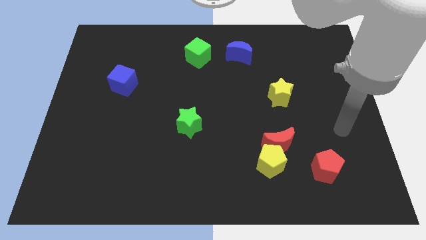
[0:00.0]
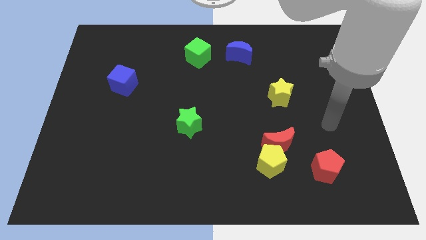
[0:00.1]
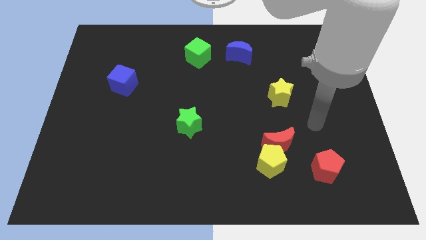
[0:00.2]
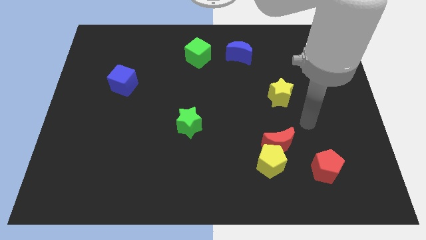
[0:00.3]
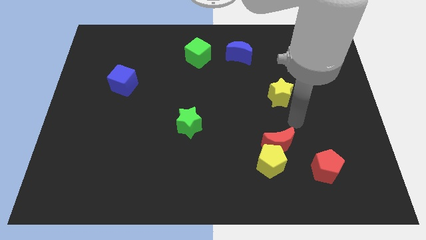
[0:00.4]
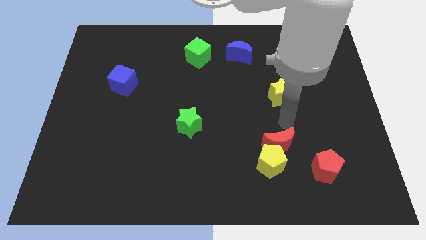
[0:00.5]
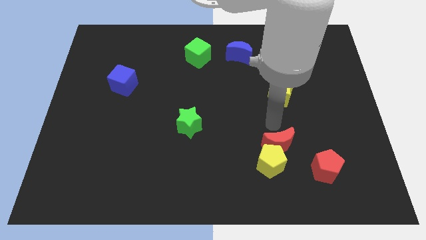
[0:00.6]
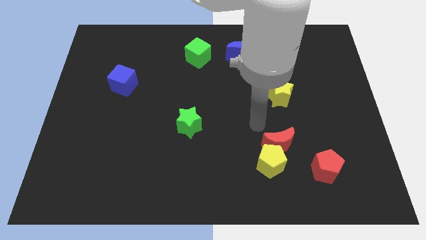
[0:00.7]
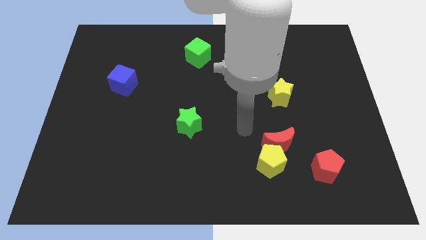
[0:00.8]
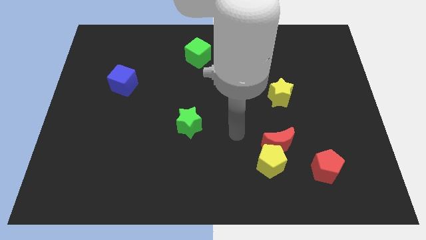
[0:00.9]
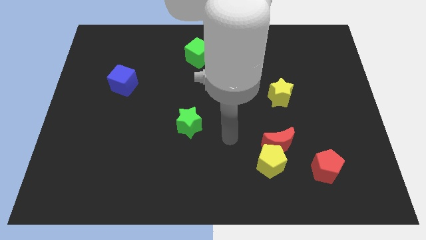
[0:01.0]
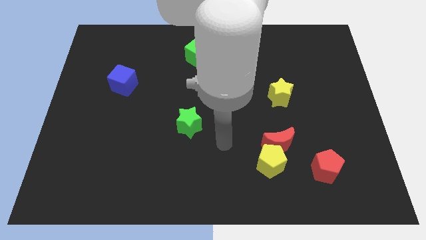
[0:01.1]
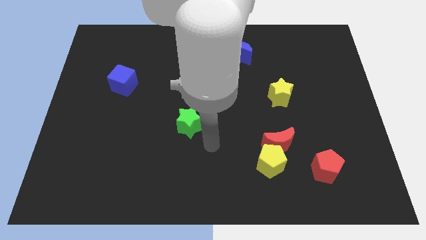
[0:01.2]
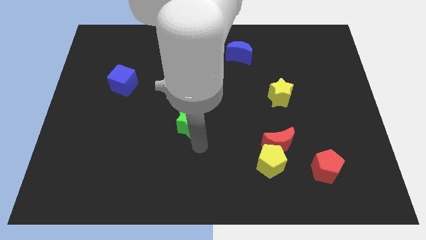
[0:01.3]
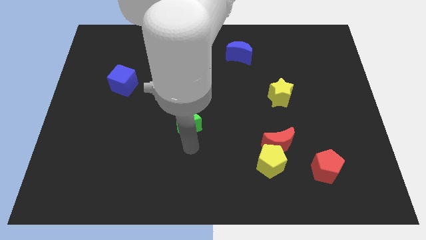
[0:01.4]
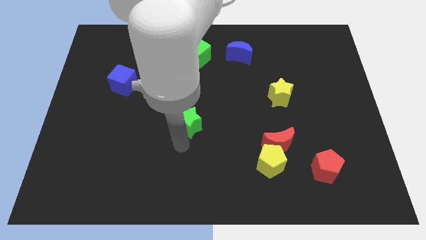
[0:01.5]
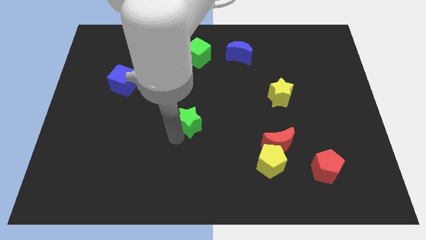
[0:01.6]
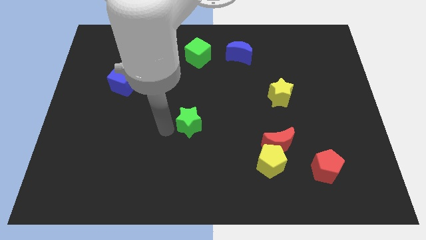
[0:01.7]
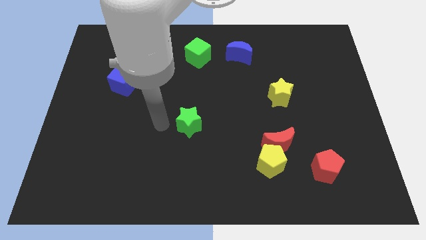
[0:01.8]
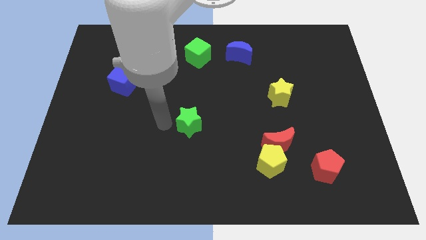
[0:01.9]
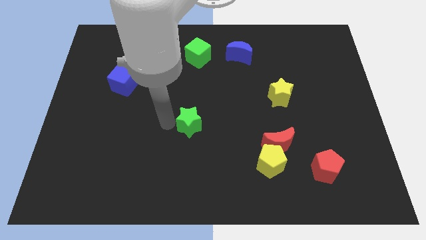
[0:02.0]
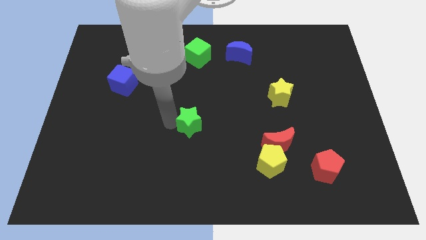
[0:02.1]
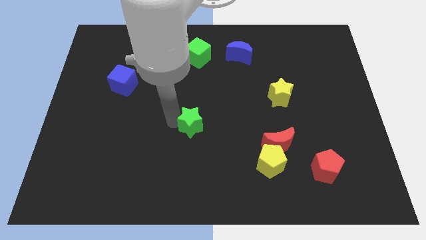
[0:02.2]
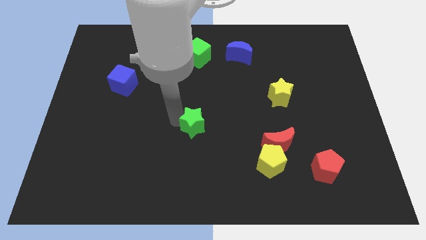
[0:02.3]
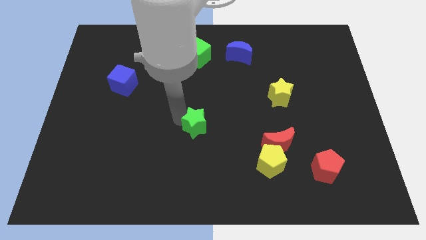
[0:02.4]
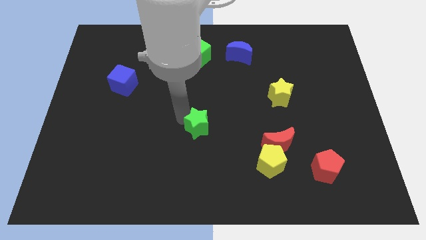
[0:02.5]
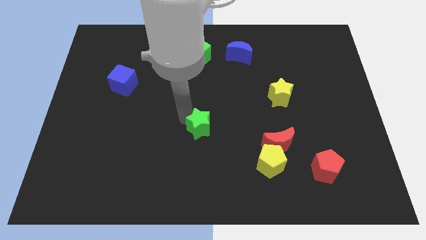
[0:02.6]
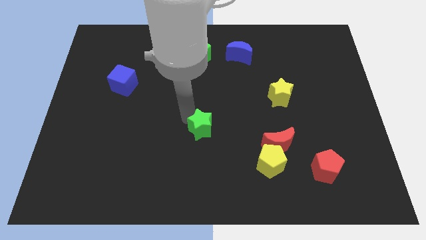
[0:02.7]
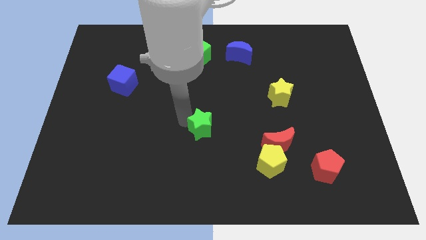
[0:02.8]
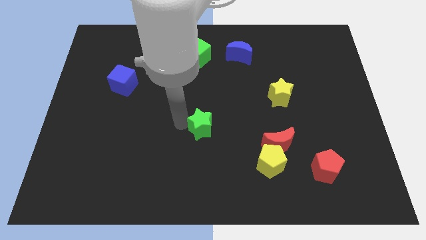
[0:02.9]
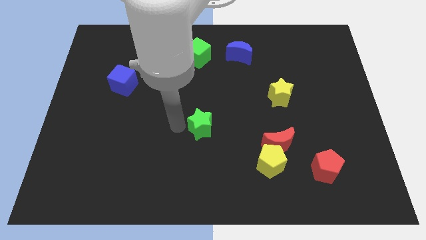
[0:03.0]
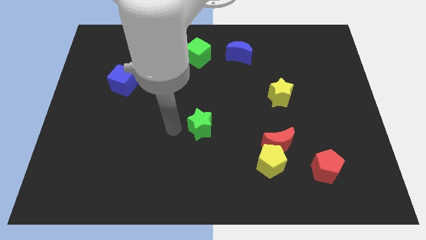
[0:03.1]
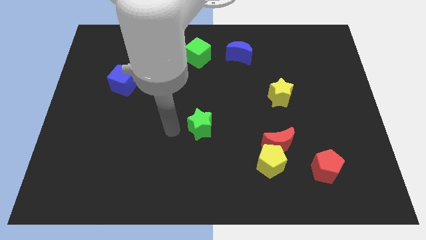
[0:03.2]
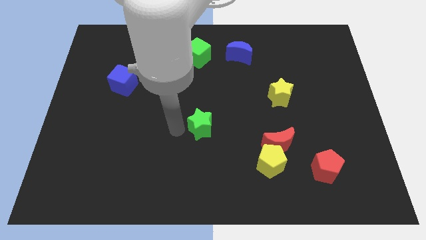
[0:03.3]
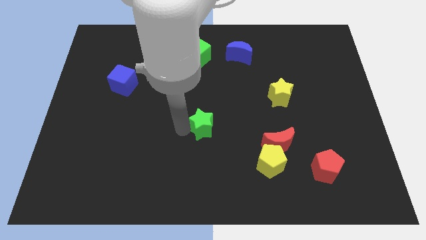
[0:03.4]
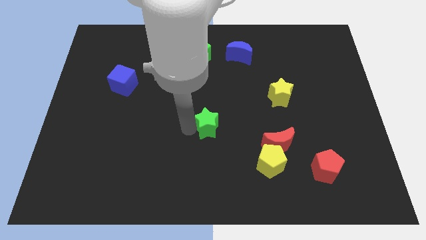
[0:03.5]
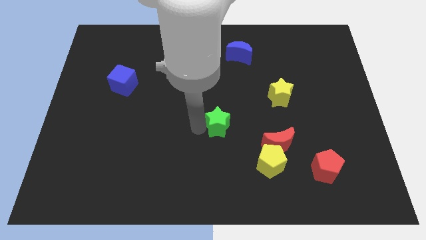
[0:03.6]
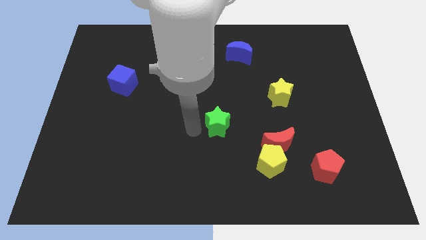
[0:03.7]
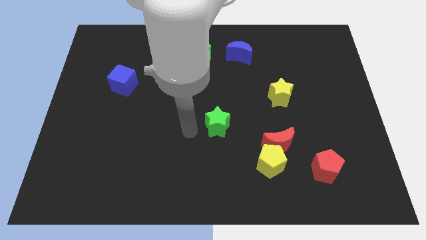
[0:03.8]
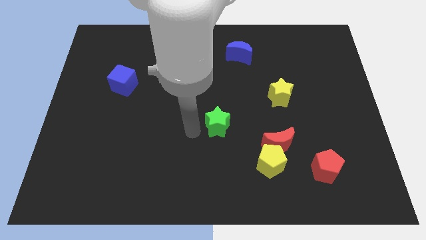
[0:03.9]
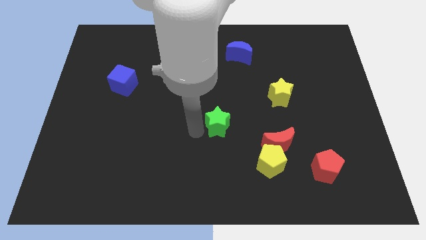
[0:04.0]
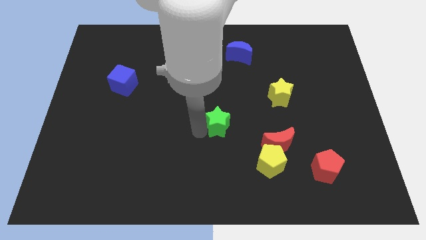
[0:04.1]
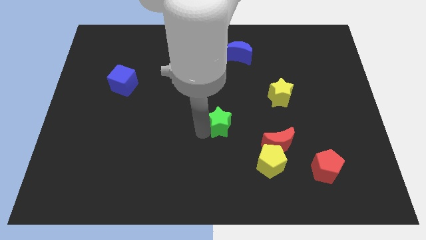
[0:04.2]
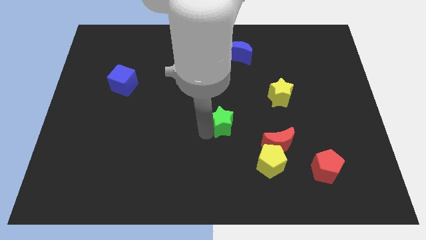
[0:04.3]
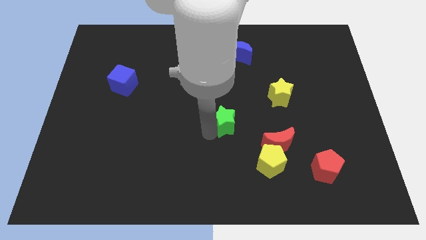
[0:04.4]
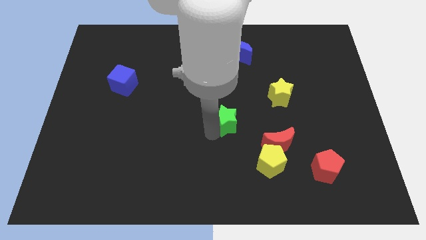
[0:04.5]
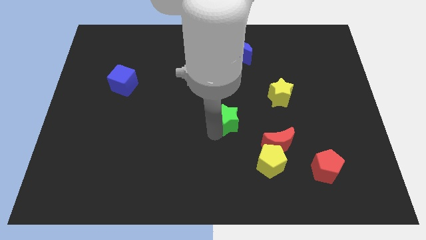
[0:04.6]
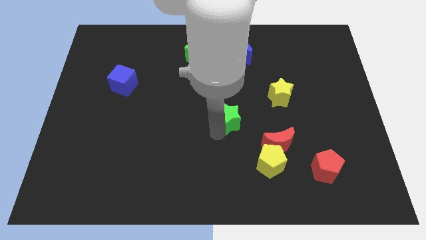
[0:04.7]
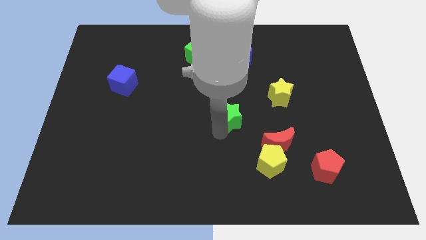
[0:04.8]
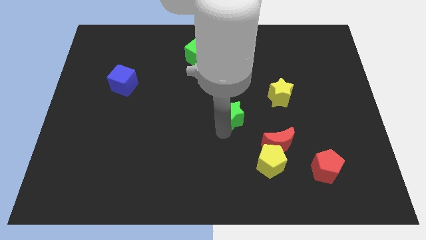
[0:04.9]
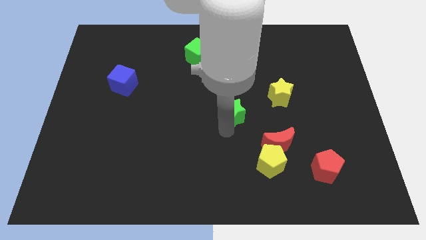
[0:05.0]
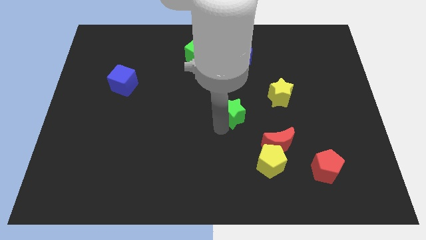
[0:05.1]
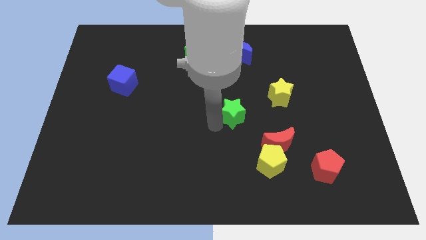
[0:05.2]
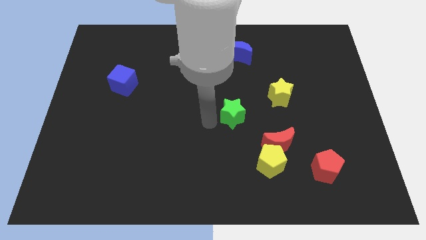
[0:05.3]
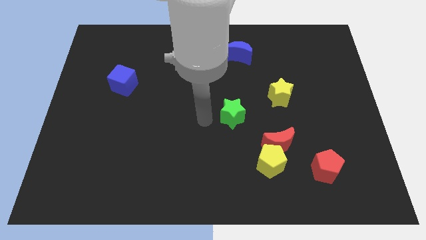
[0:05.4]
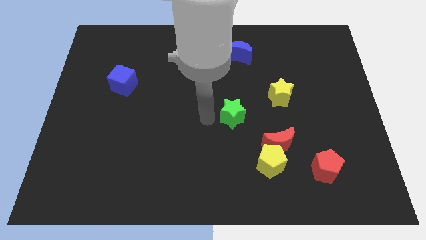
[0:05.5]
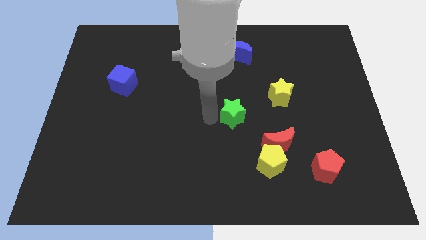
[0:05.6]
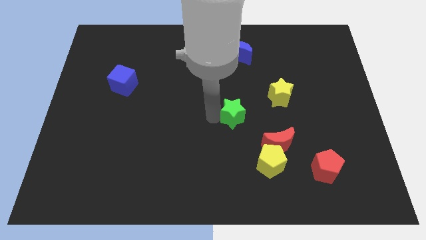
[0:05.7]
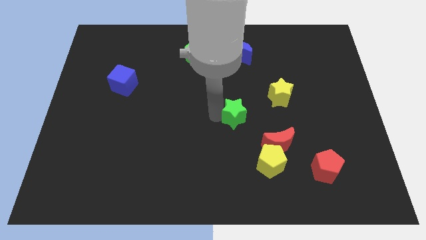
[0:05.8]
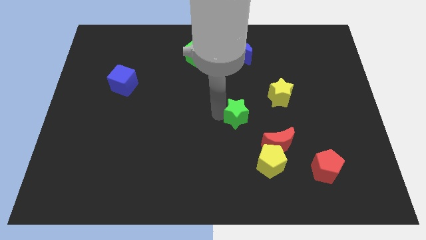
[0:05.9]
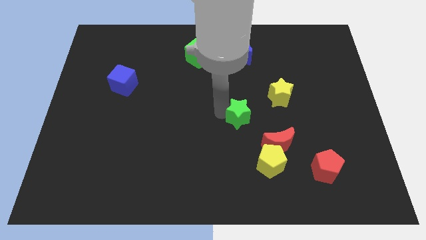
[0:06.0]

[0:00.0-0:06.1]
move the green star to the bottom left of the yellow star

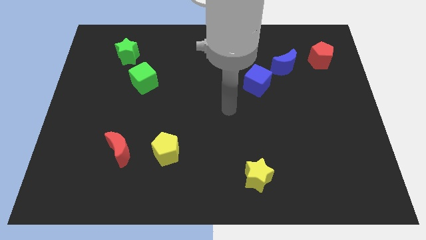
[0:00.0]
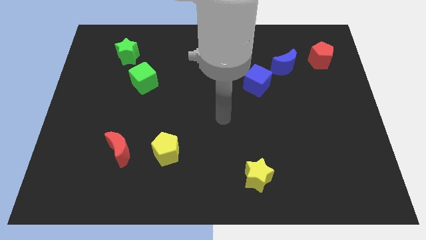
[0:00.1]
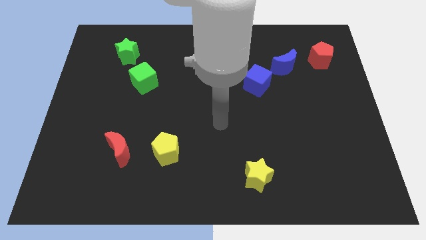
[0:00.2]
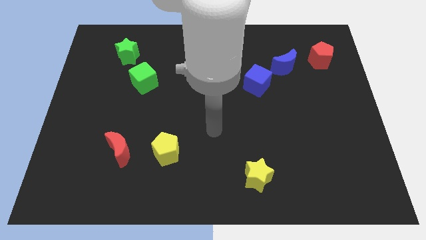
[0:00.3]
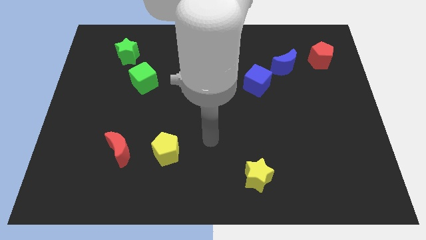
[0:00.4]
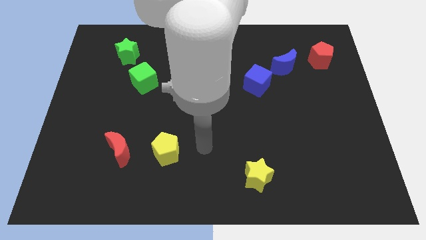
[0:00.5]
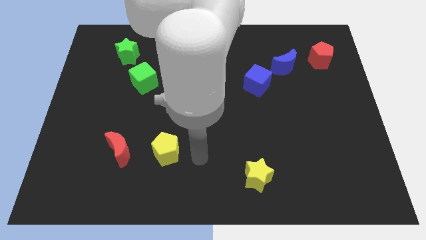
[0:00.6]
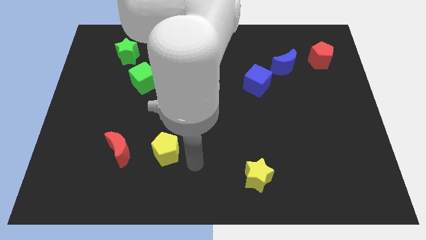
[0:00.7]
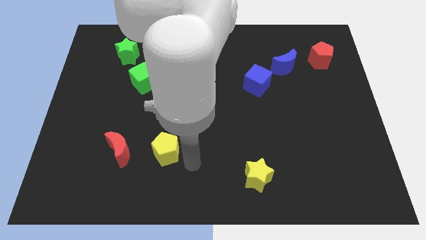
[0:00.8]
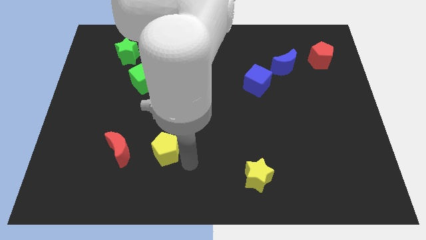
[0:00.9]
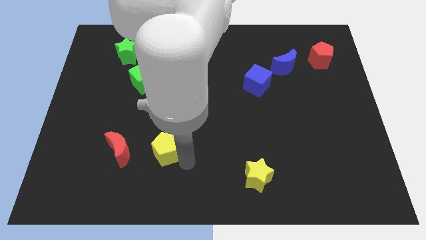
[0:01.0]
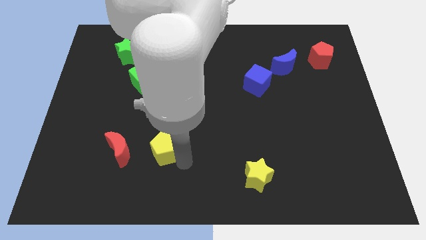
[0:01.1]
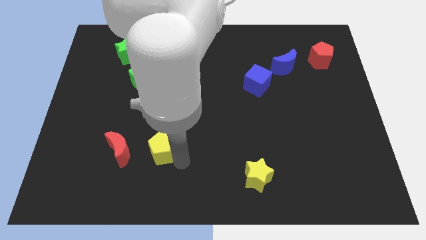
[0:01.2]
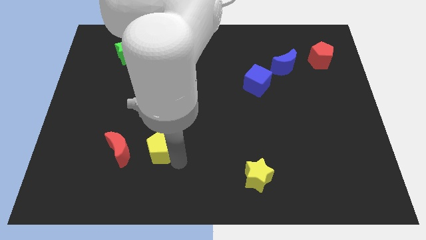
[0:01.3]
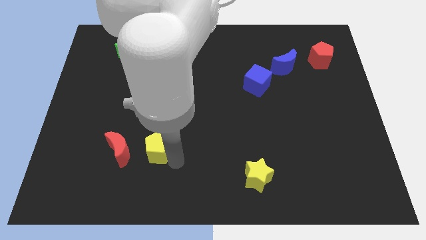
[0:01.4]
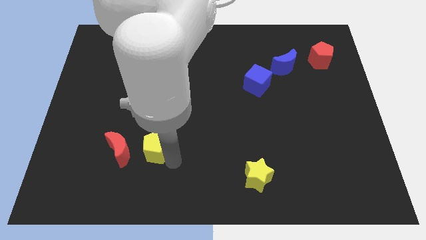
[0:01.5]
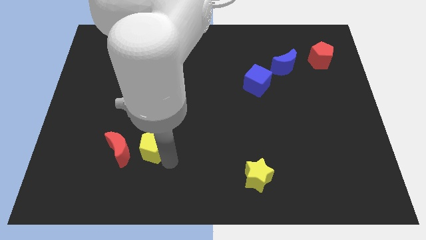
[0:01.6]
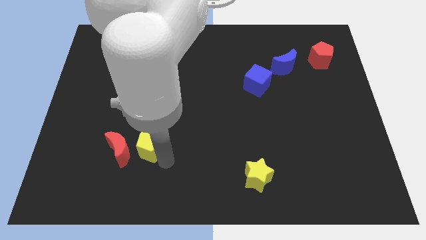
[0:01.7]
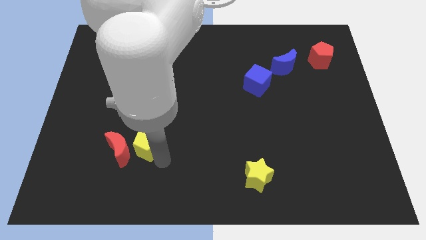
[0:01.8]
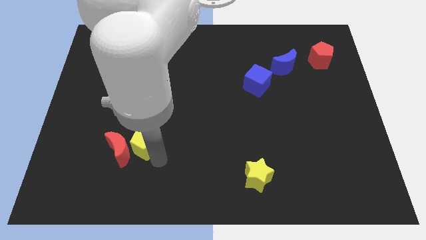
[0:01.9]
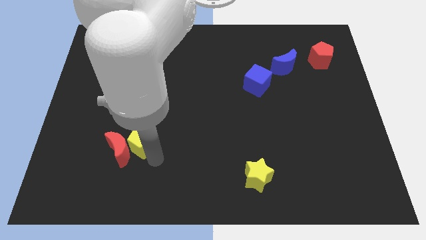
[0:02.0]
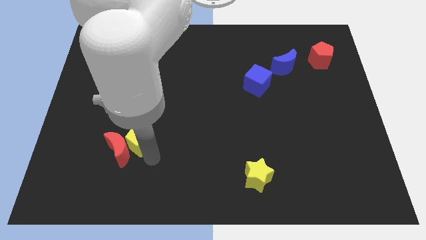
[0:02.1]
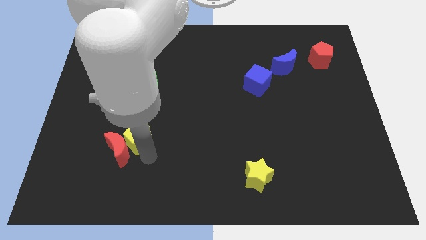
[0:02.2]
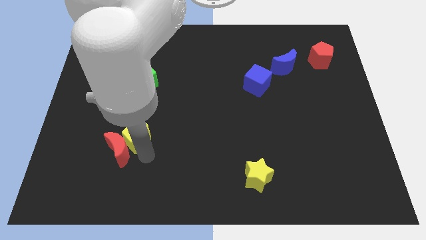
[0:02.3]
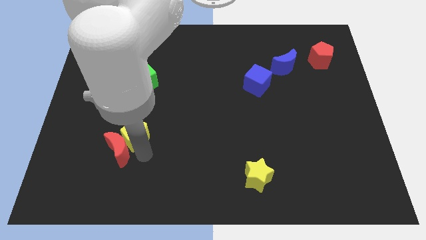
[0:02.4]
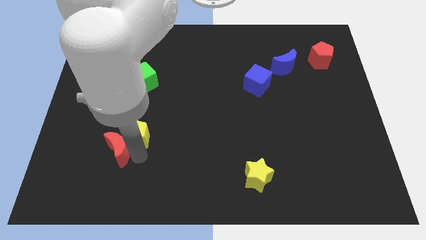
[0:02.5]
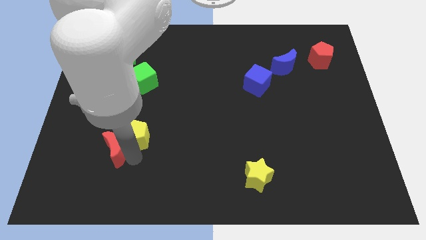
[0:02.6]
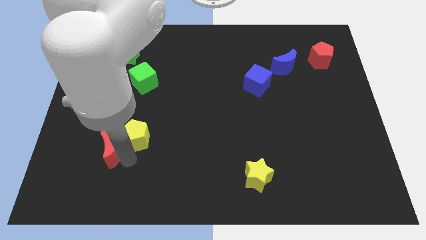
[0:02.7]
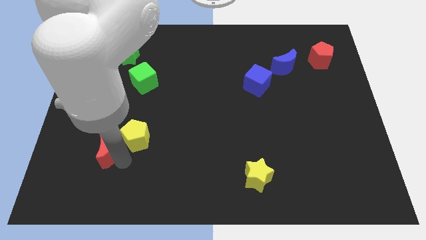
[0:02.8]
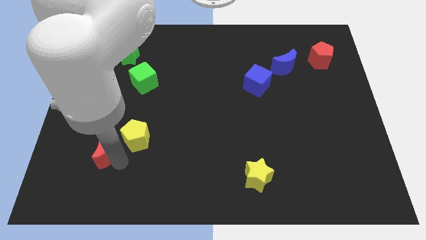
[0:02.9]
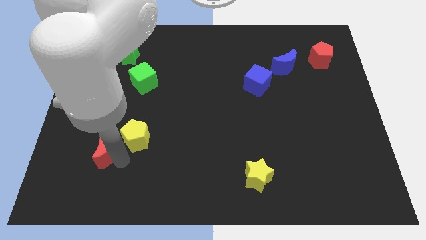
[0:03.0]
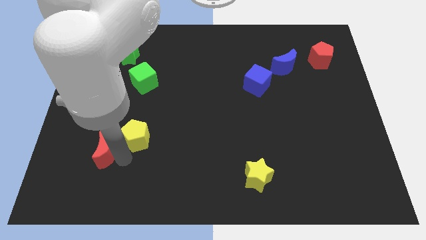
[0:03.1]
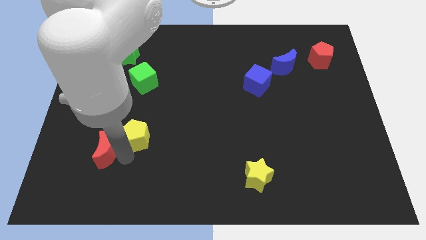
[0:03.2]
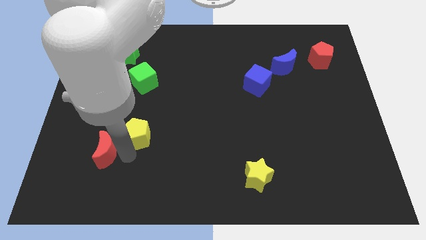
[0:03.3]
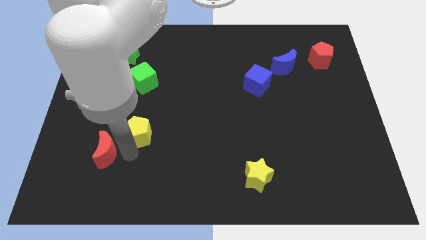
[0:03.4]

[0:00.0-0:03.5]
put the yellow pentagon to the bottom of the green cube
